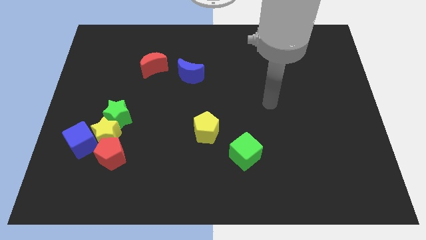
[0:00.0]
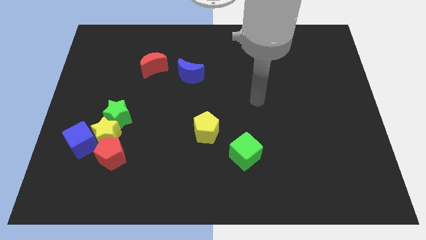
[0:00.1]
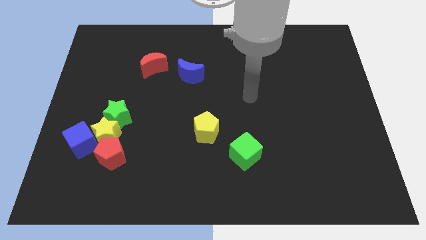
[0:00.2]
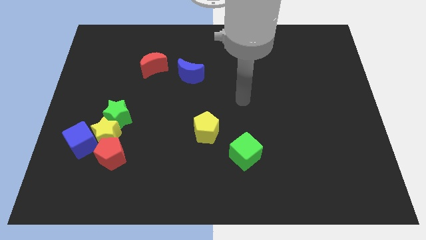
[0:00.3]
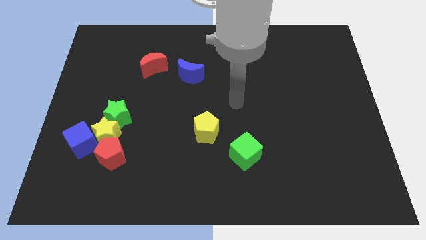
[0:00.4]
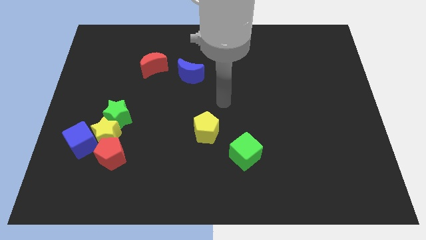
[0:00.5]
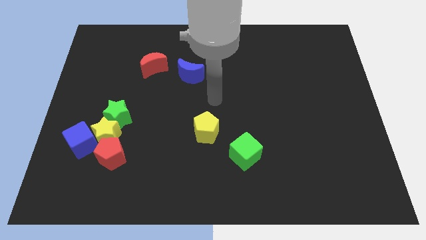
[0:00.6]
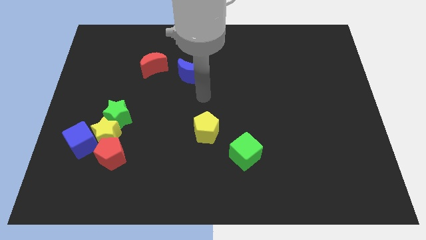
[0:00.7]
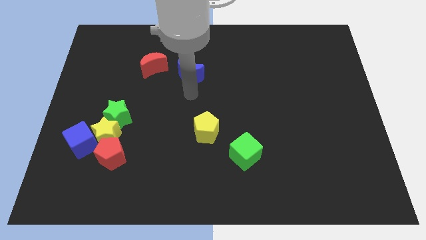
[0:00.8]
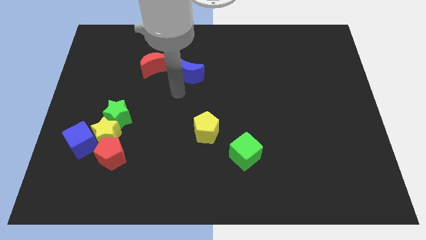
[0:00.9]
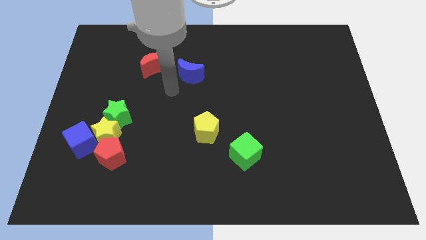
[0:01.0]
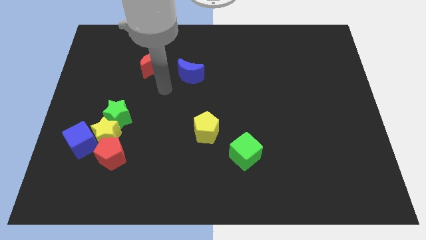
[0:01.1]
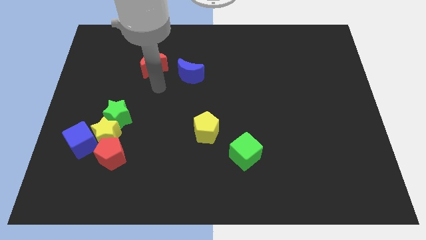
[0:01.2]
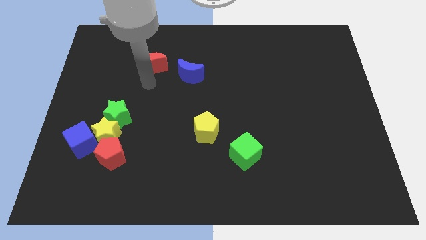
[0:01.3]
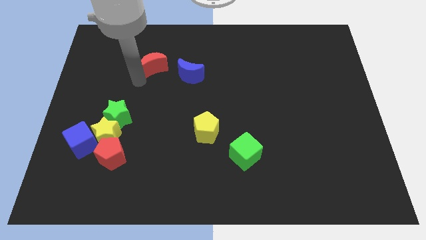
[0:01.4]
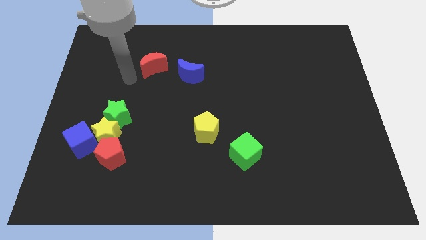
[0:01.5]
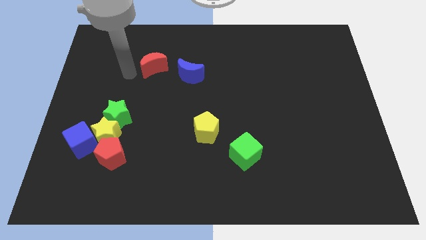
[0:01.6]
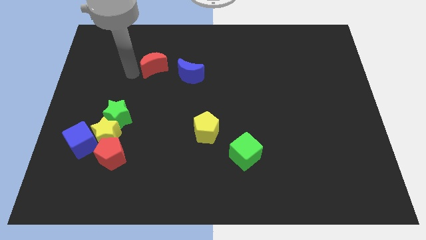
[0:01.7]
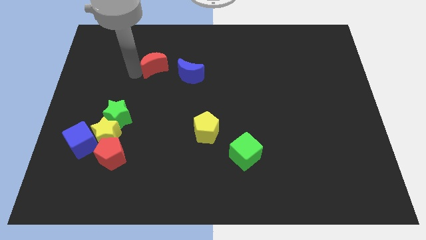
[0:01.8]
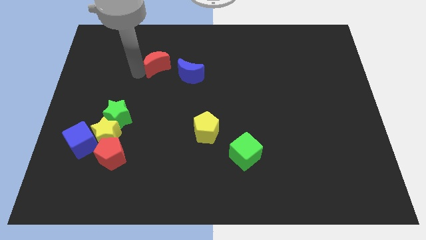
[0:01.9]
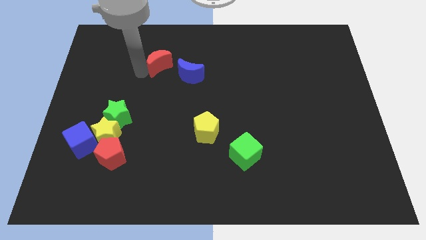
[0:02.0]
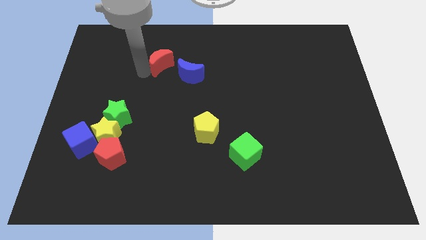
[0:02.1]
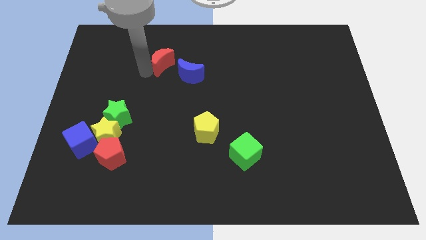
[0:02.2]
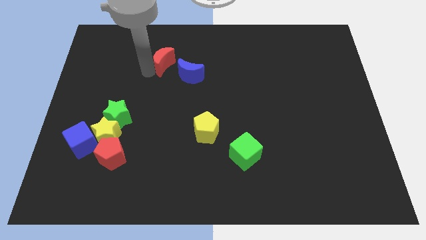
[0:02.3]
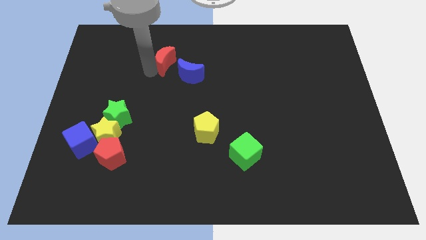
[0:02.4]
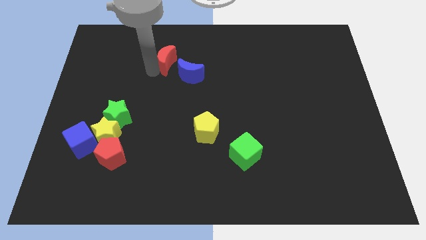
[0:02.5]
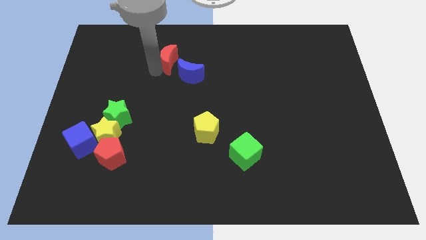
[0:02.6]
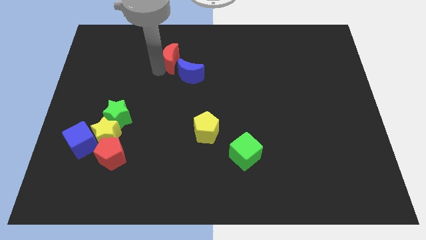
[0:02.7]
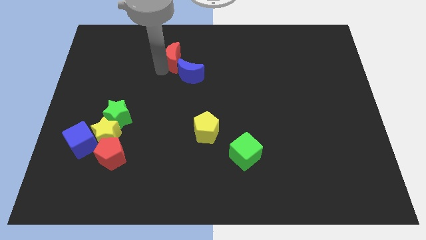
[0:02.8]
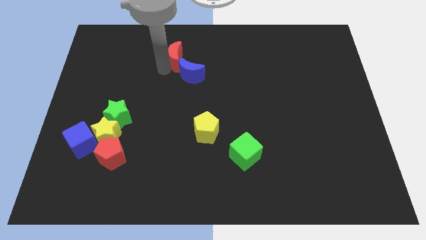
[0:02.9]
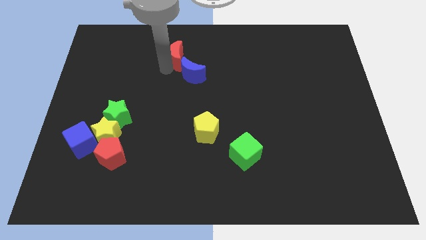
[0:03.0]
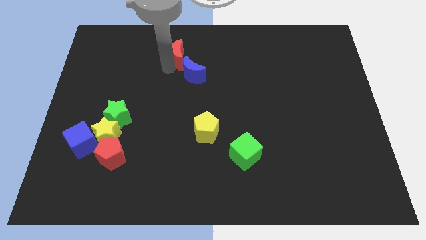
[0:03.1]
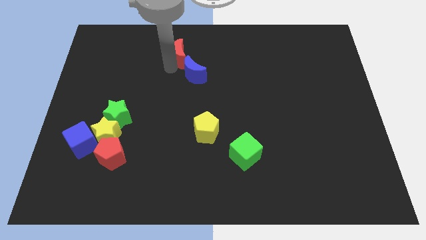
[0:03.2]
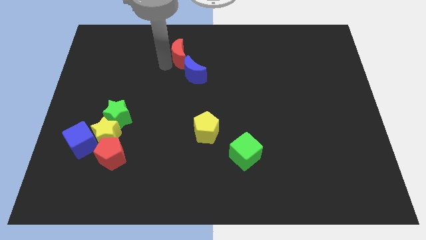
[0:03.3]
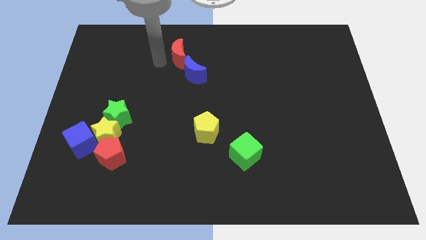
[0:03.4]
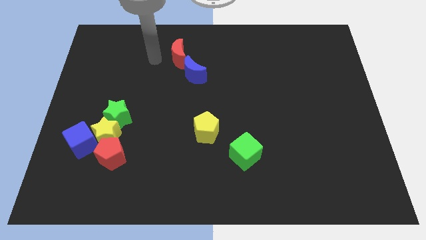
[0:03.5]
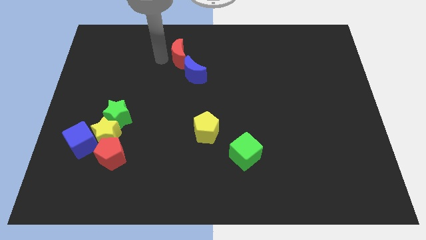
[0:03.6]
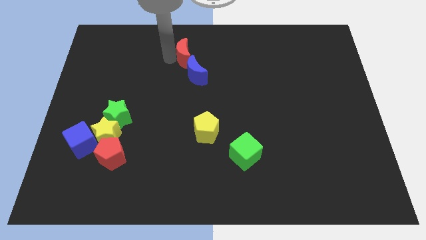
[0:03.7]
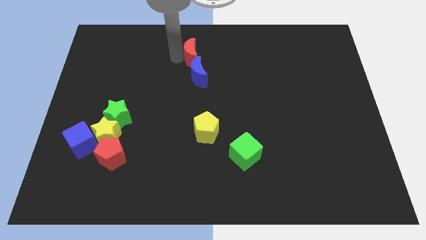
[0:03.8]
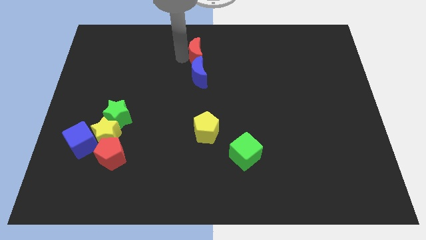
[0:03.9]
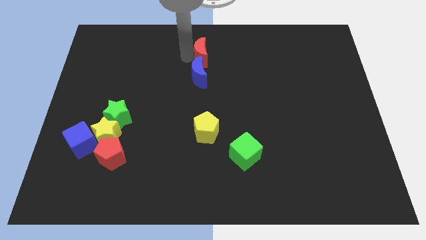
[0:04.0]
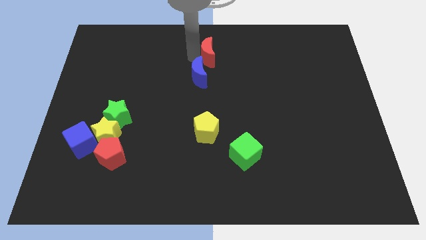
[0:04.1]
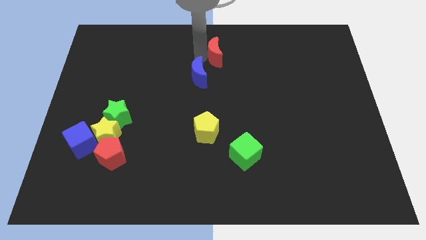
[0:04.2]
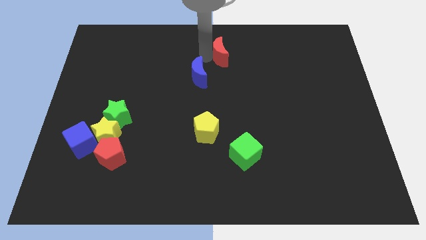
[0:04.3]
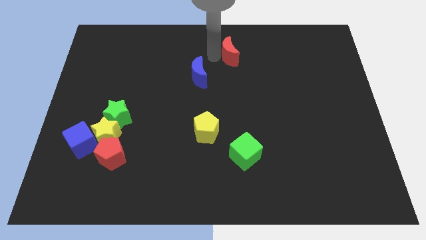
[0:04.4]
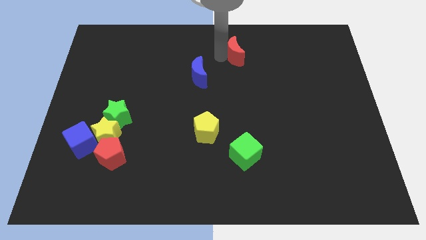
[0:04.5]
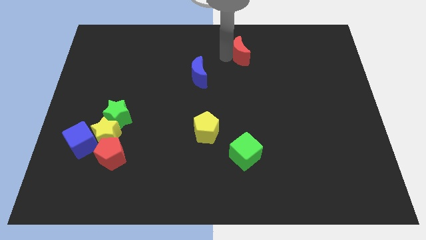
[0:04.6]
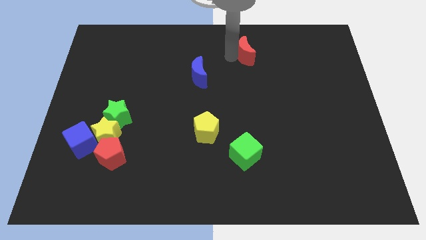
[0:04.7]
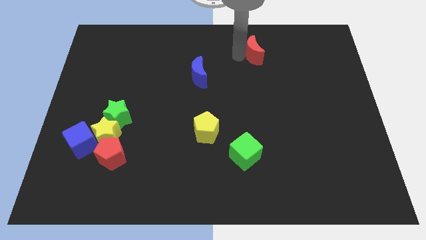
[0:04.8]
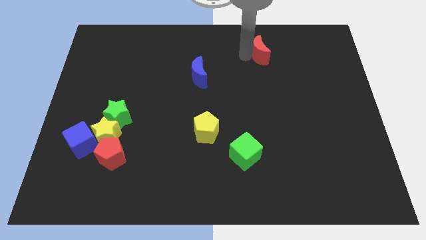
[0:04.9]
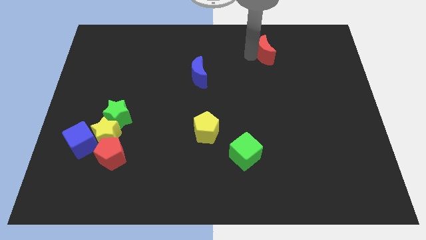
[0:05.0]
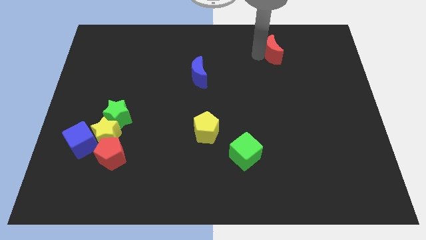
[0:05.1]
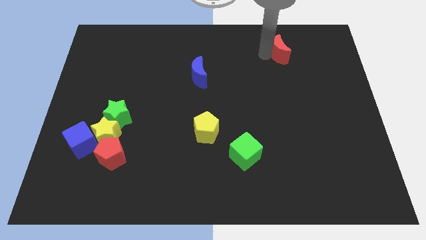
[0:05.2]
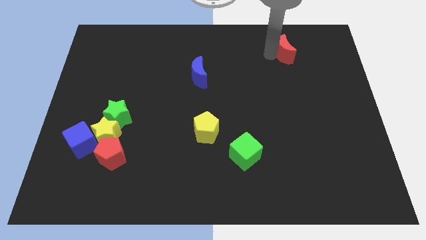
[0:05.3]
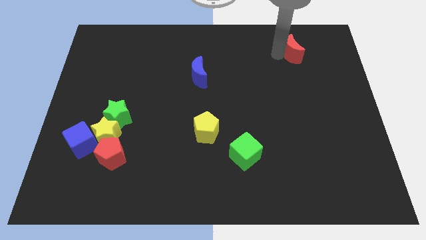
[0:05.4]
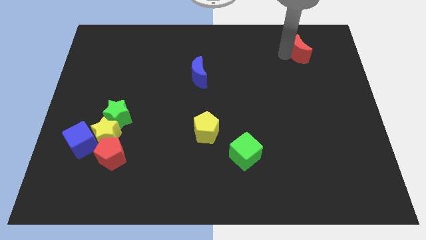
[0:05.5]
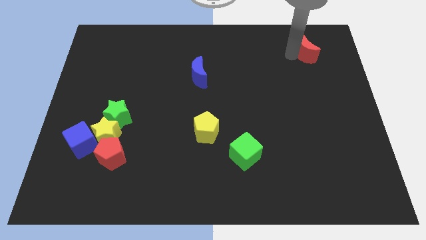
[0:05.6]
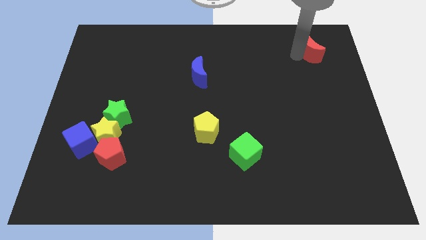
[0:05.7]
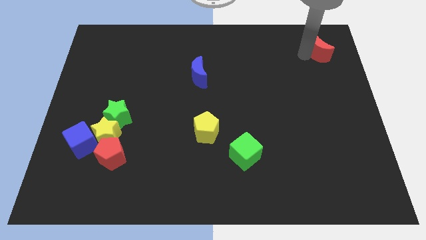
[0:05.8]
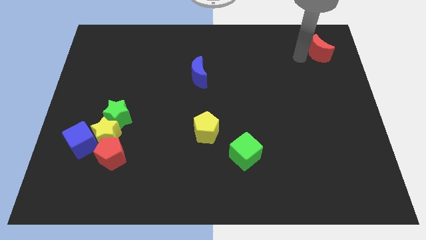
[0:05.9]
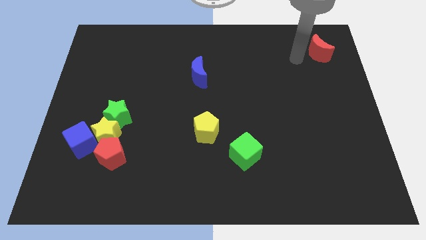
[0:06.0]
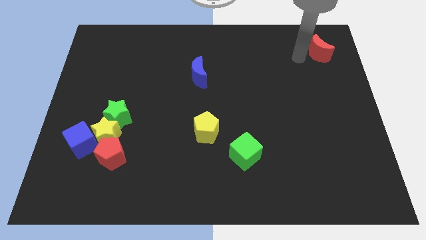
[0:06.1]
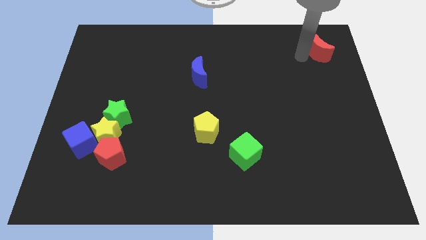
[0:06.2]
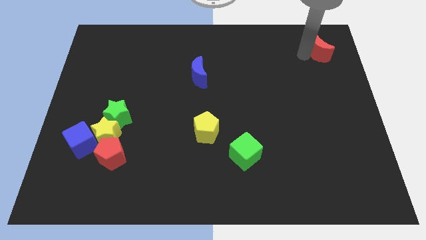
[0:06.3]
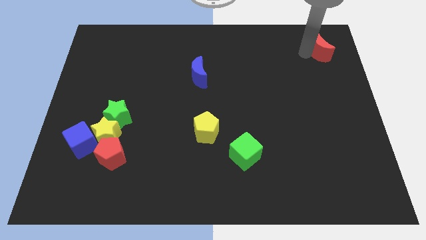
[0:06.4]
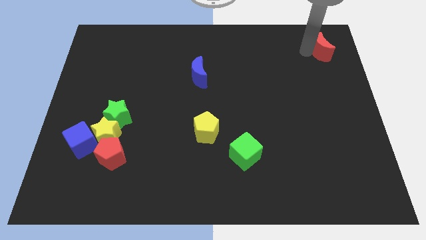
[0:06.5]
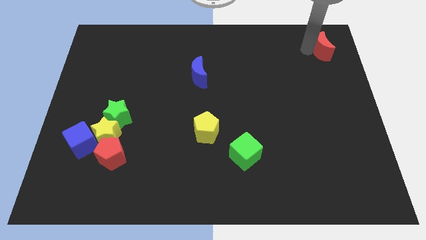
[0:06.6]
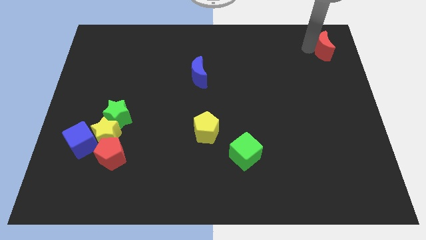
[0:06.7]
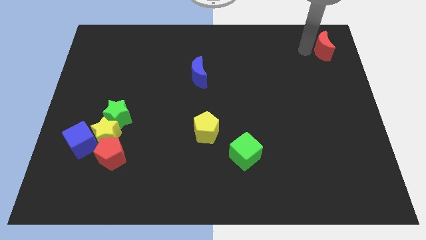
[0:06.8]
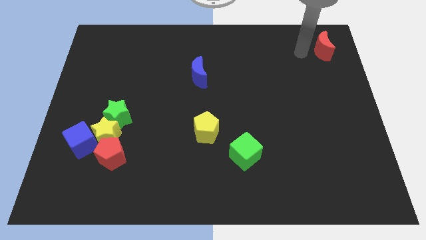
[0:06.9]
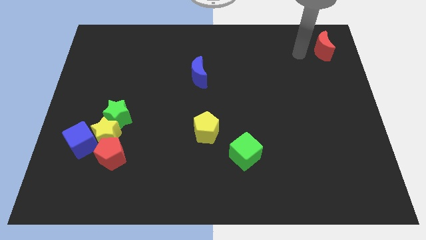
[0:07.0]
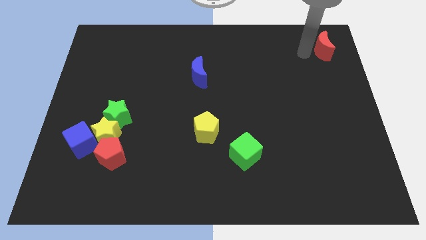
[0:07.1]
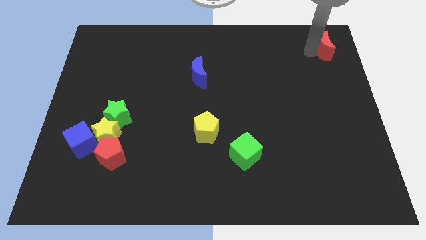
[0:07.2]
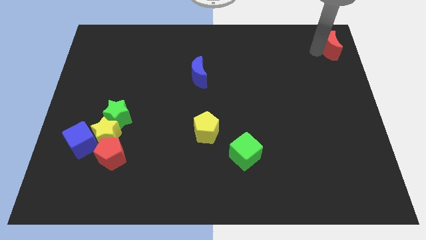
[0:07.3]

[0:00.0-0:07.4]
put the red moon to the top right
